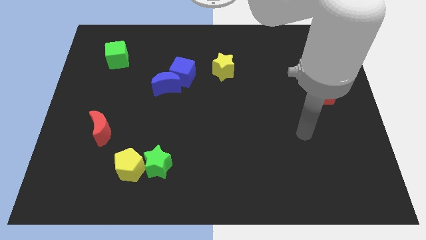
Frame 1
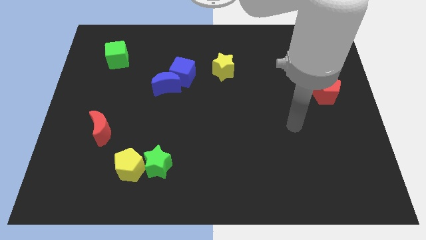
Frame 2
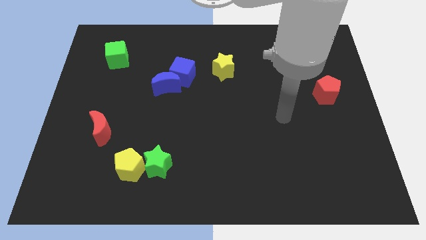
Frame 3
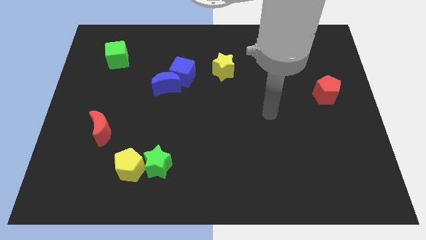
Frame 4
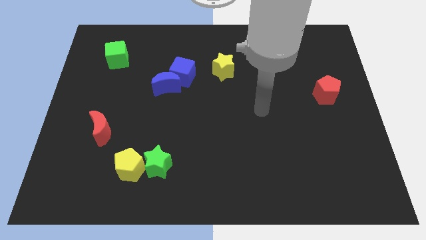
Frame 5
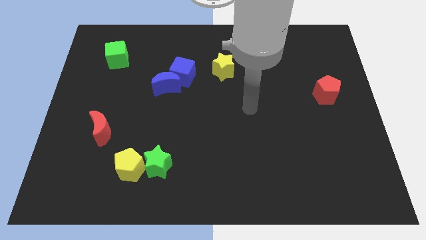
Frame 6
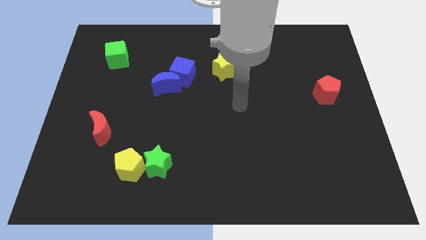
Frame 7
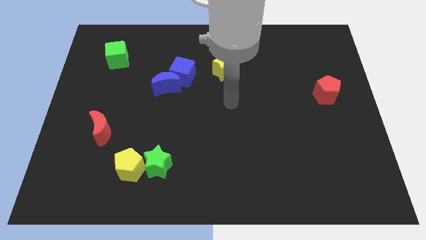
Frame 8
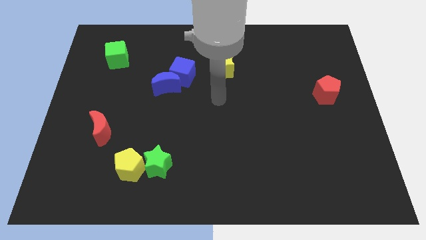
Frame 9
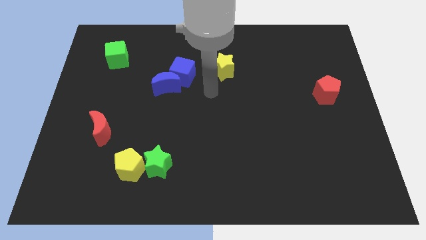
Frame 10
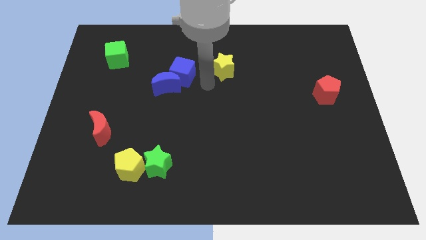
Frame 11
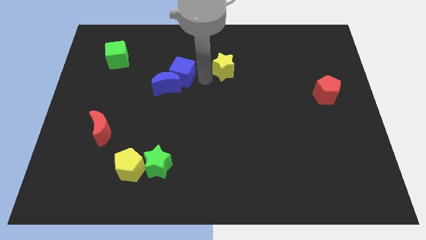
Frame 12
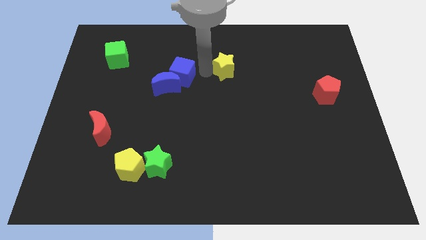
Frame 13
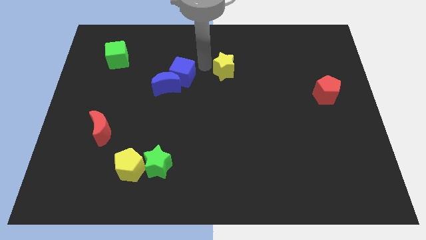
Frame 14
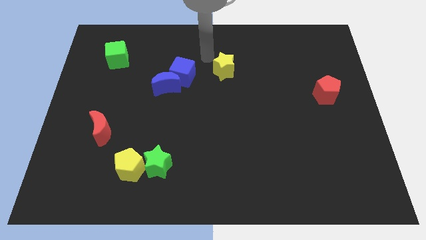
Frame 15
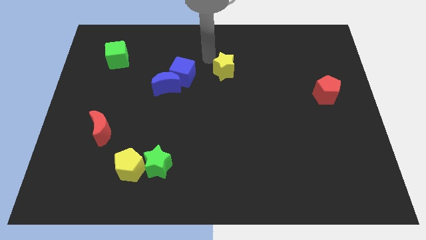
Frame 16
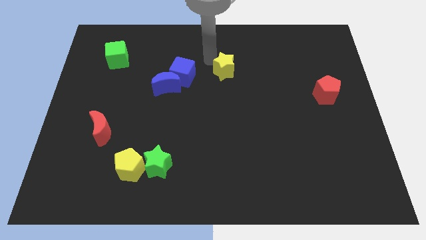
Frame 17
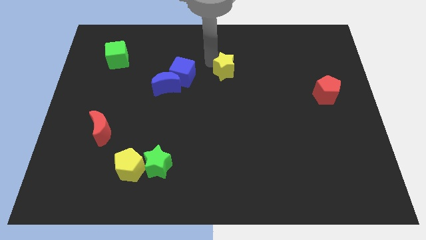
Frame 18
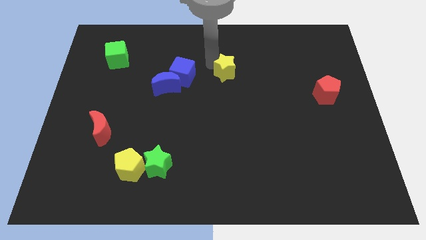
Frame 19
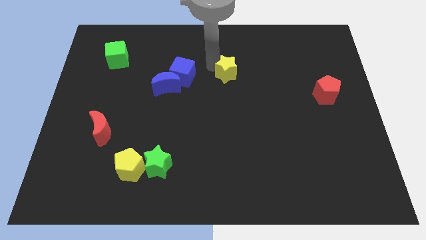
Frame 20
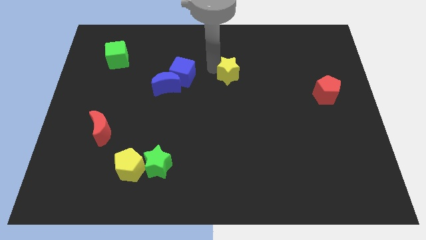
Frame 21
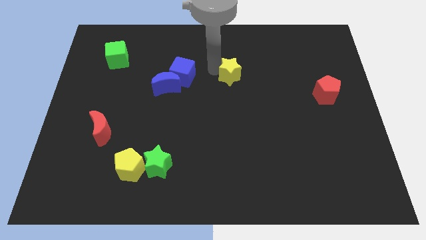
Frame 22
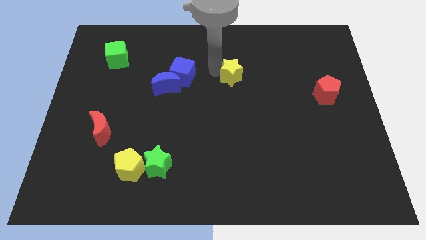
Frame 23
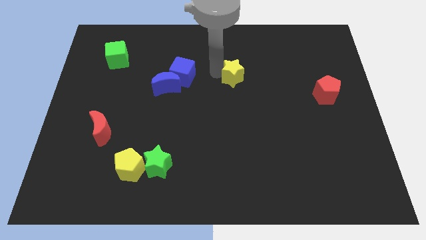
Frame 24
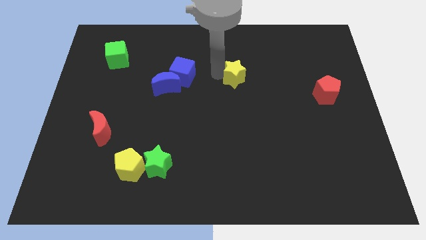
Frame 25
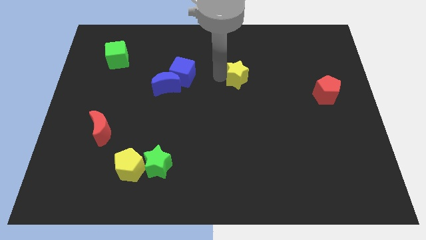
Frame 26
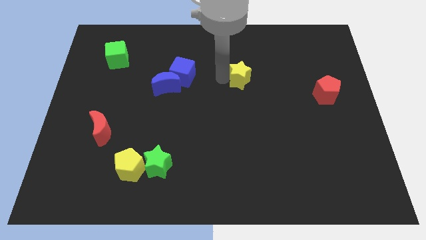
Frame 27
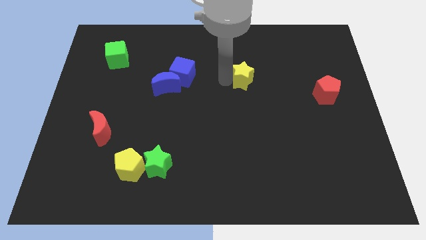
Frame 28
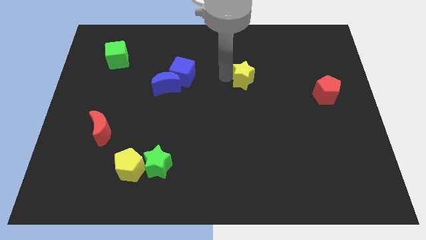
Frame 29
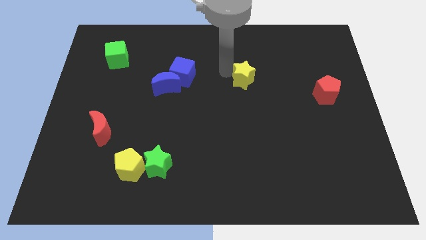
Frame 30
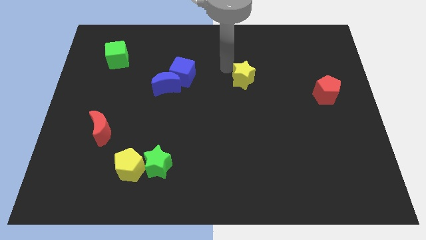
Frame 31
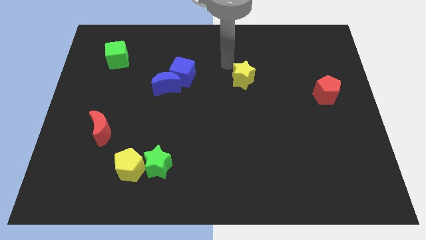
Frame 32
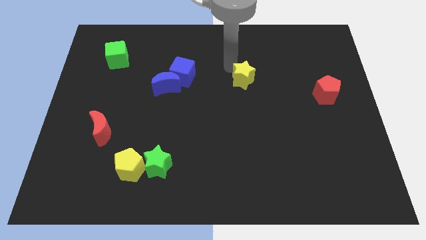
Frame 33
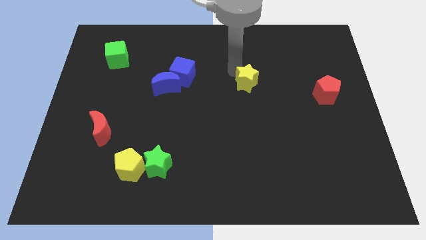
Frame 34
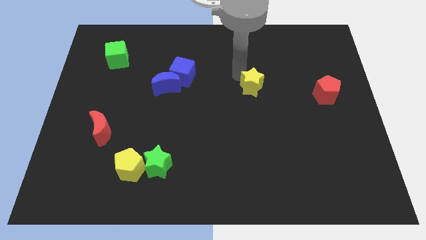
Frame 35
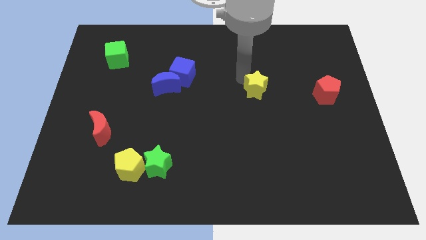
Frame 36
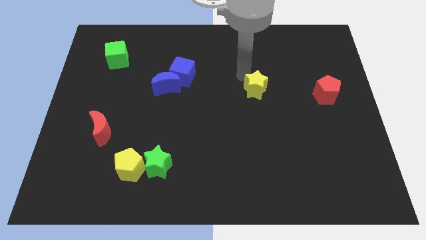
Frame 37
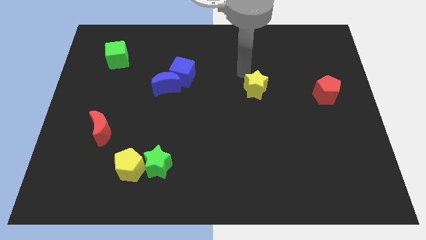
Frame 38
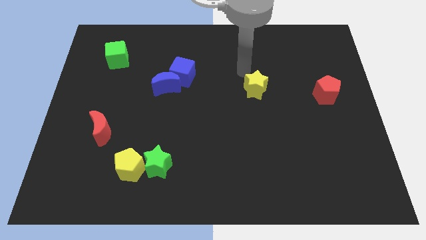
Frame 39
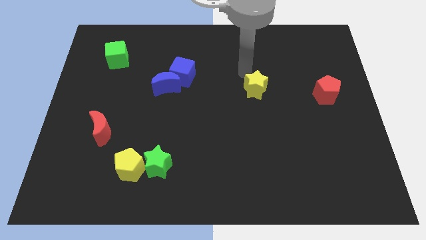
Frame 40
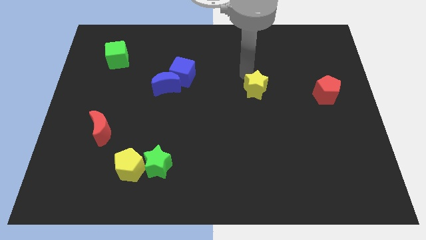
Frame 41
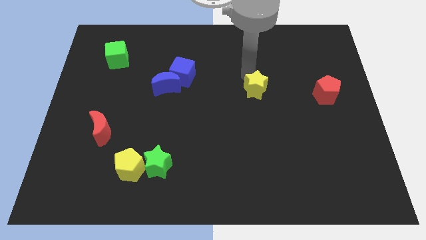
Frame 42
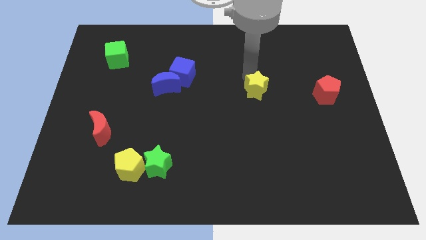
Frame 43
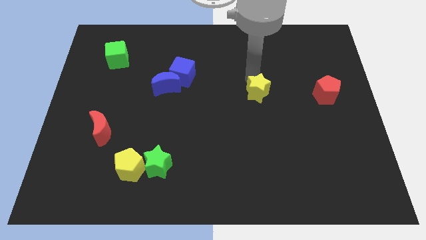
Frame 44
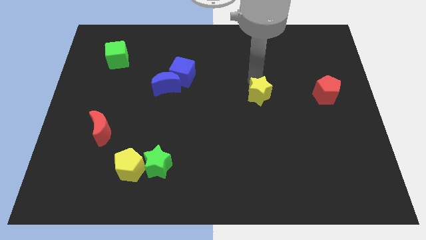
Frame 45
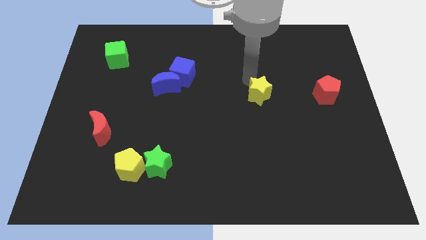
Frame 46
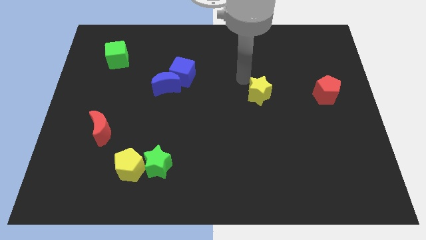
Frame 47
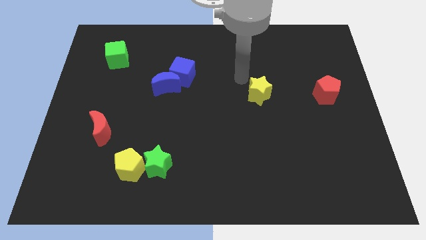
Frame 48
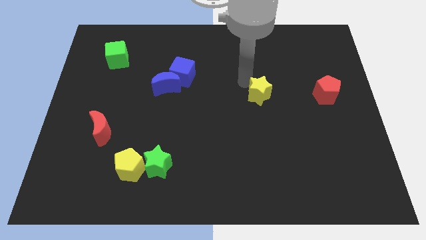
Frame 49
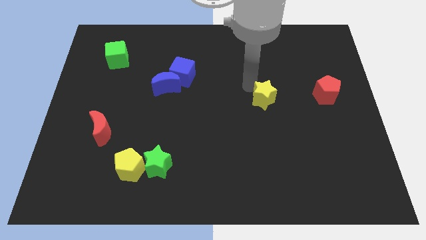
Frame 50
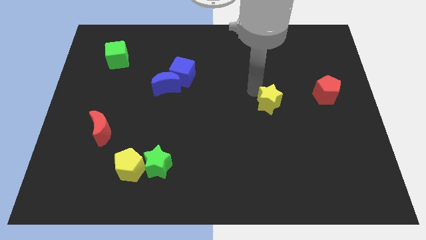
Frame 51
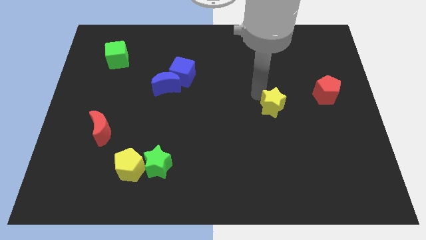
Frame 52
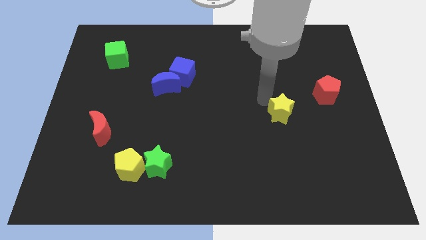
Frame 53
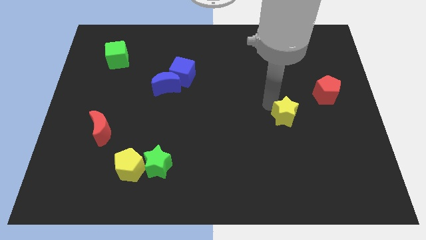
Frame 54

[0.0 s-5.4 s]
slide the yellow star downwards and to the right diagonally

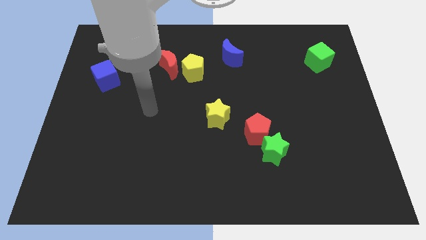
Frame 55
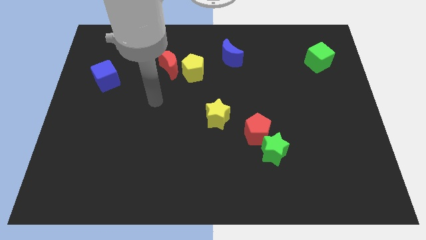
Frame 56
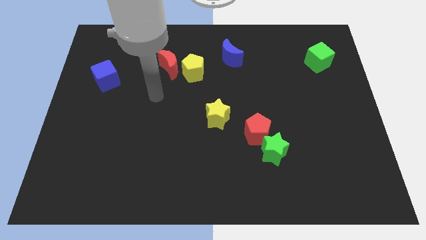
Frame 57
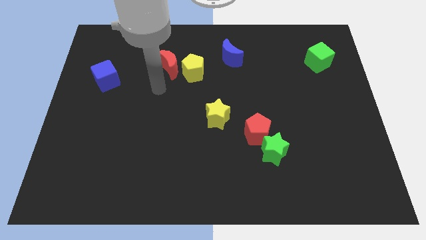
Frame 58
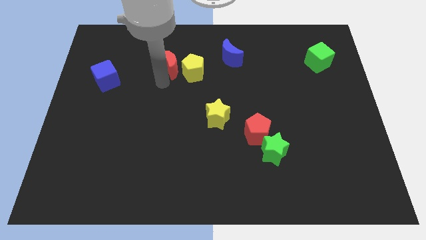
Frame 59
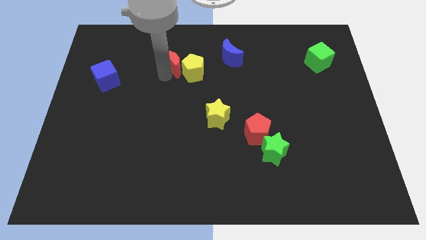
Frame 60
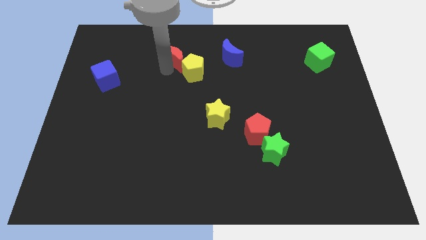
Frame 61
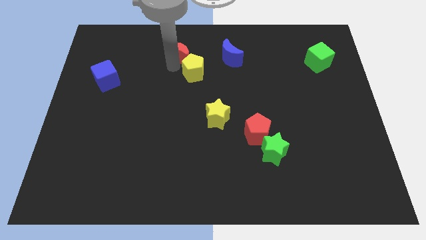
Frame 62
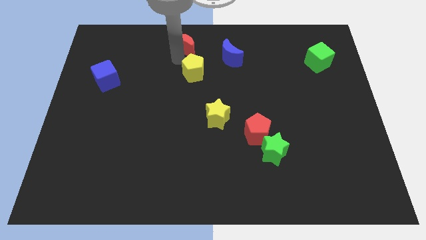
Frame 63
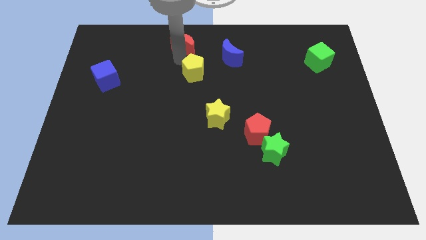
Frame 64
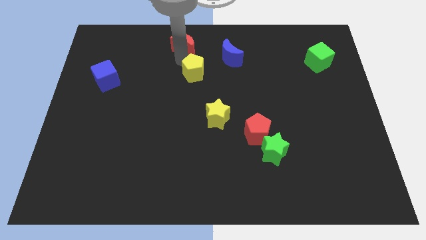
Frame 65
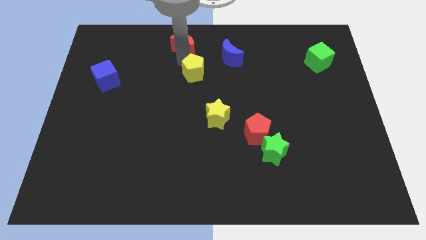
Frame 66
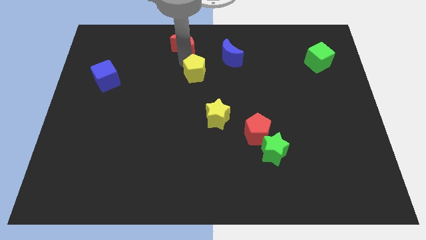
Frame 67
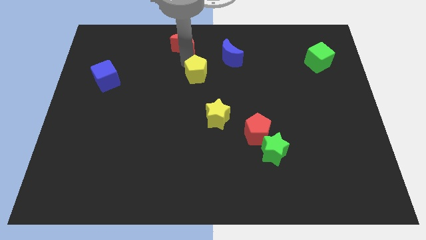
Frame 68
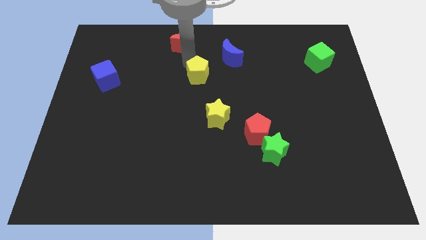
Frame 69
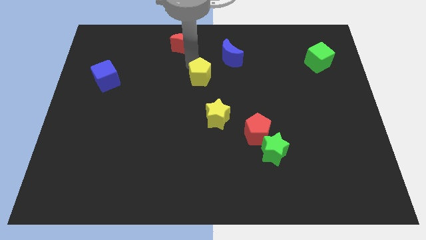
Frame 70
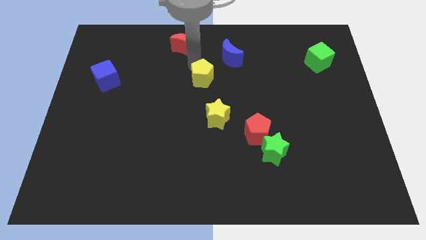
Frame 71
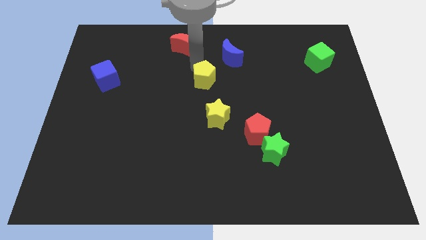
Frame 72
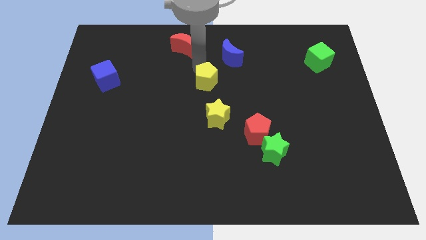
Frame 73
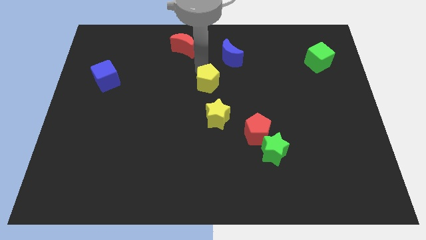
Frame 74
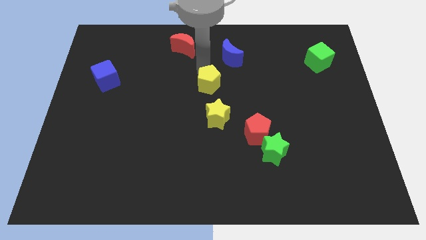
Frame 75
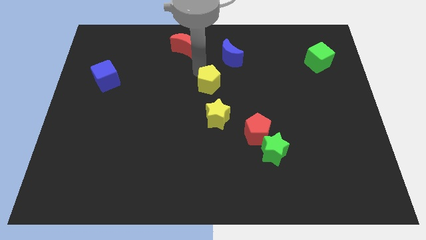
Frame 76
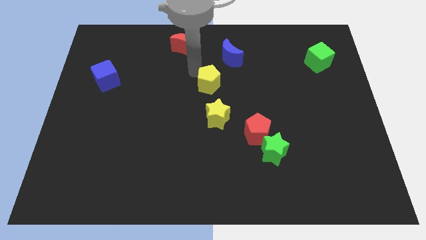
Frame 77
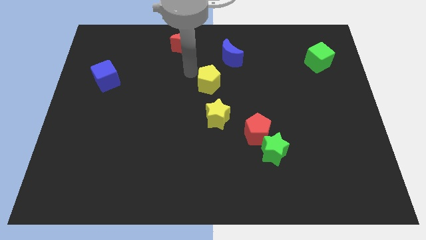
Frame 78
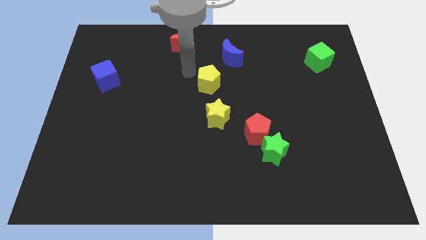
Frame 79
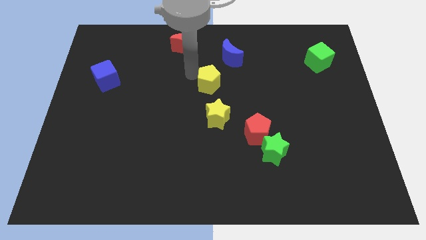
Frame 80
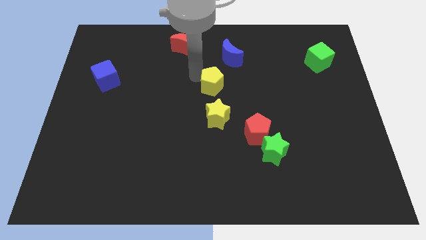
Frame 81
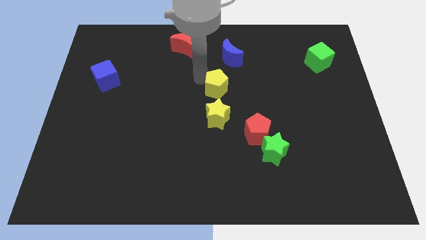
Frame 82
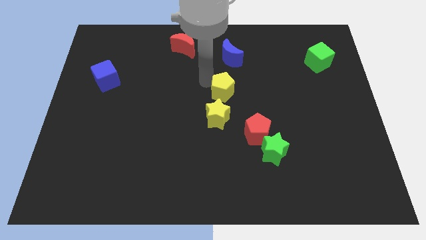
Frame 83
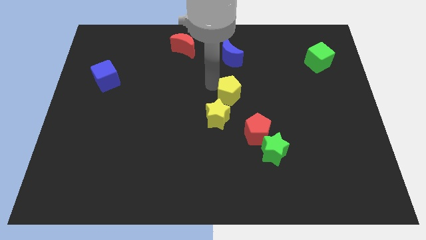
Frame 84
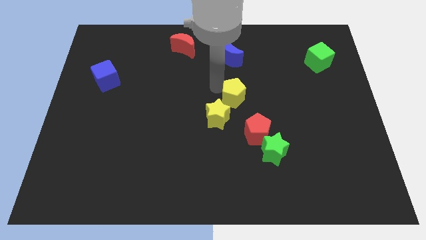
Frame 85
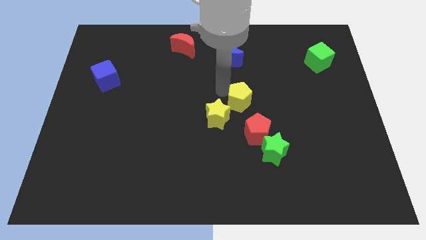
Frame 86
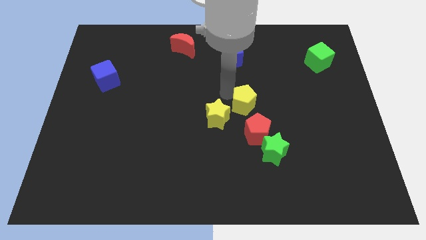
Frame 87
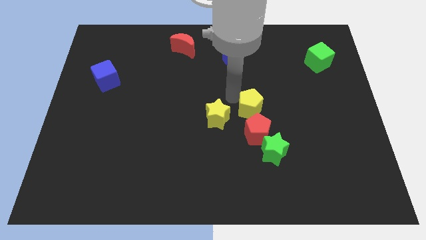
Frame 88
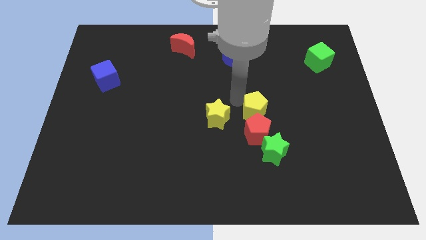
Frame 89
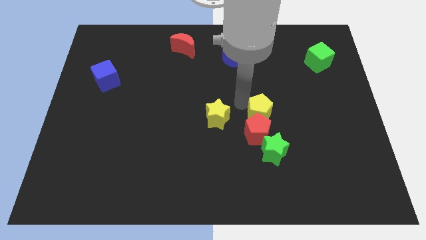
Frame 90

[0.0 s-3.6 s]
push the yellow pentagon down and then right
